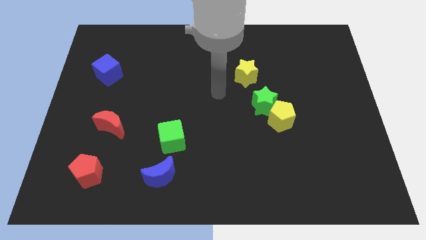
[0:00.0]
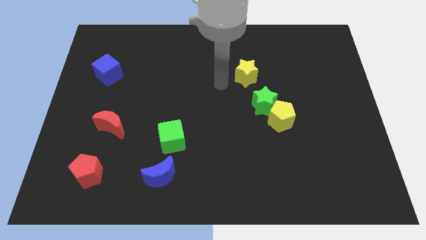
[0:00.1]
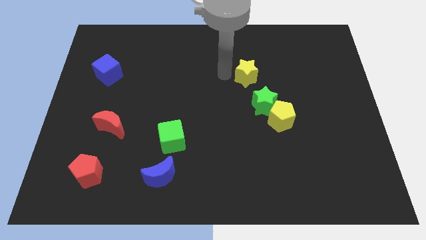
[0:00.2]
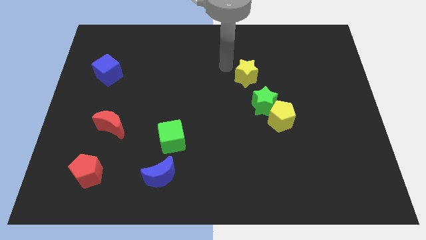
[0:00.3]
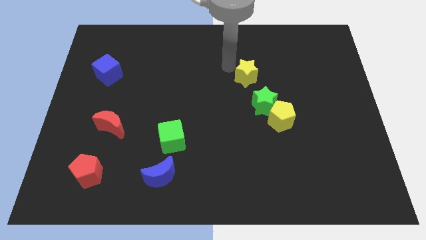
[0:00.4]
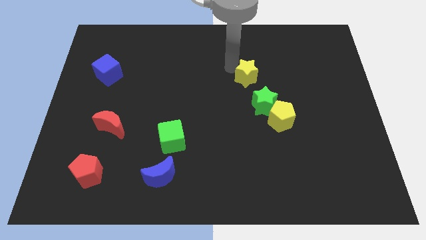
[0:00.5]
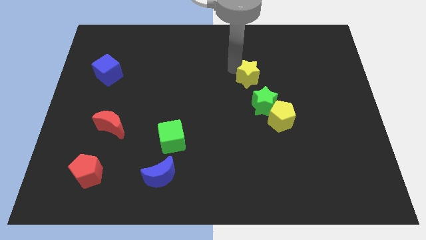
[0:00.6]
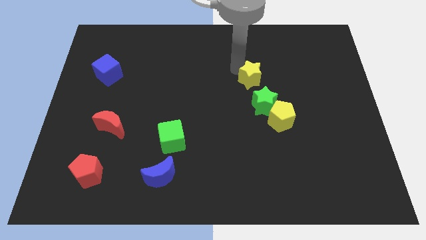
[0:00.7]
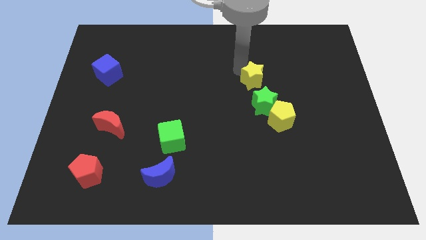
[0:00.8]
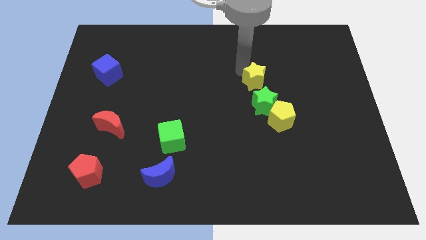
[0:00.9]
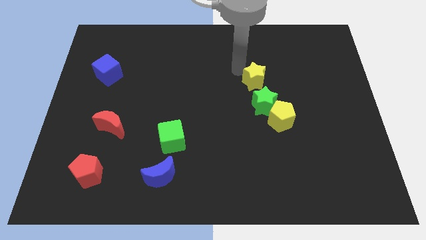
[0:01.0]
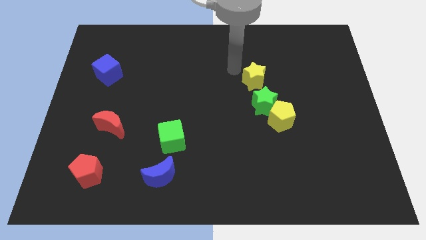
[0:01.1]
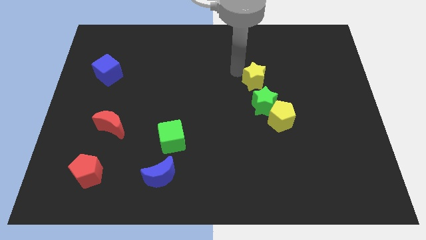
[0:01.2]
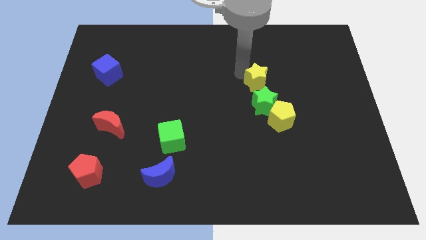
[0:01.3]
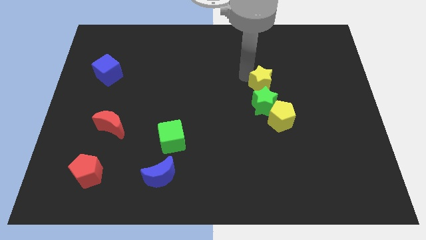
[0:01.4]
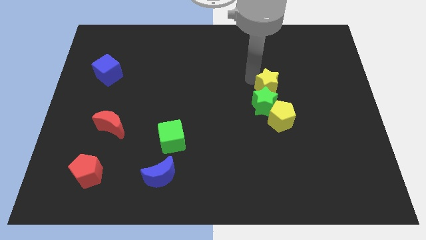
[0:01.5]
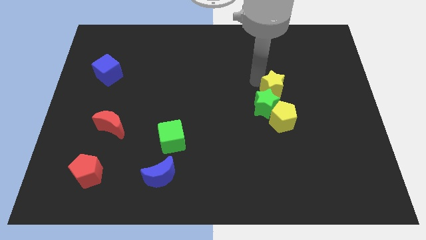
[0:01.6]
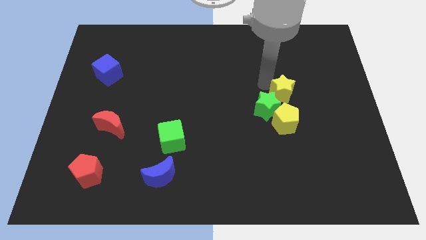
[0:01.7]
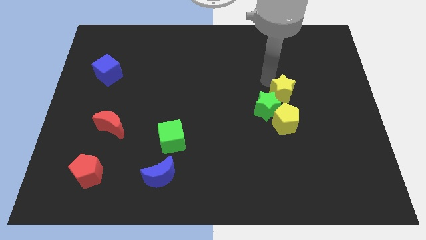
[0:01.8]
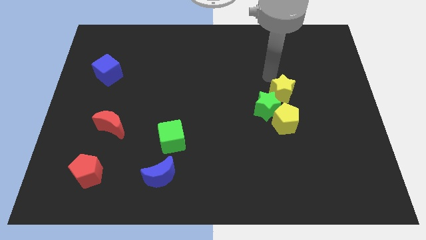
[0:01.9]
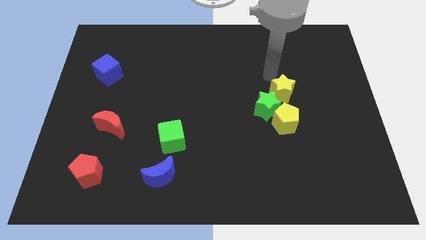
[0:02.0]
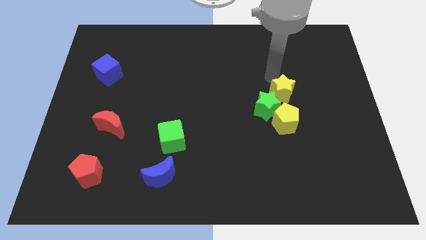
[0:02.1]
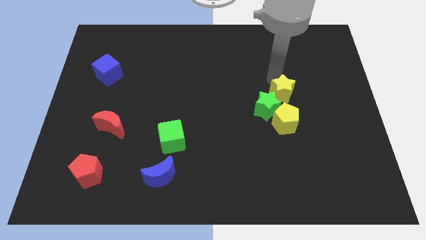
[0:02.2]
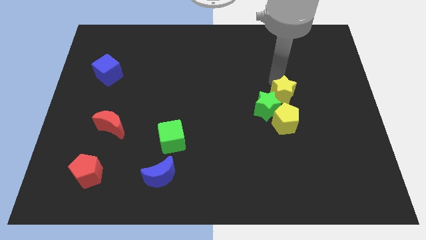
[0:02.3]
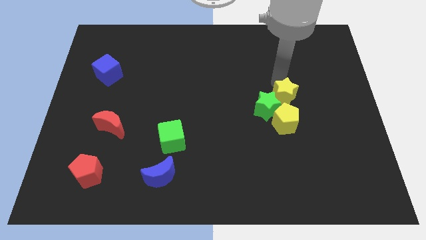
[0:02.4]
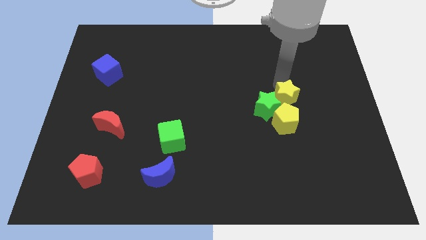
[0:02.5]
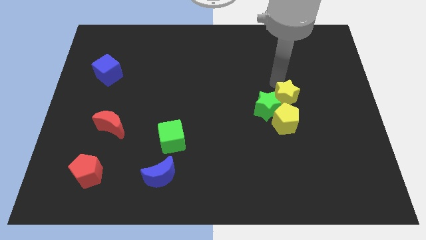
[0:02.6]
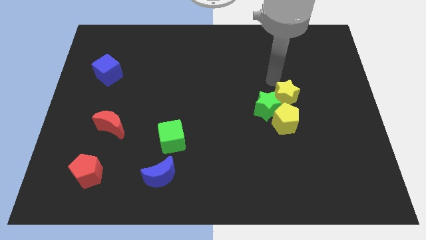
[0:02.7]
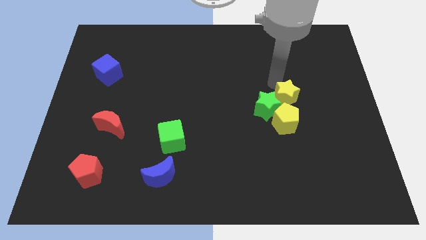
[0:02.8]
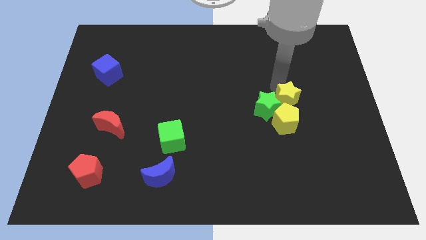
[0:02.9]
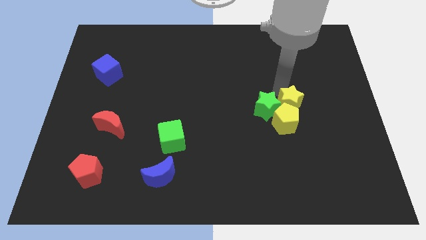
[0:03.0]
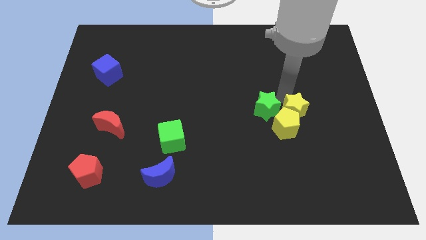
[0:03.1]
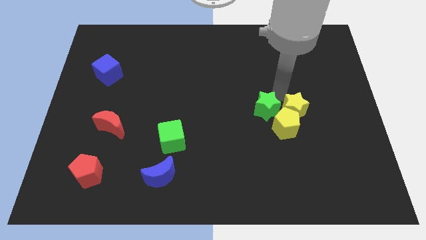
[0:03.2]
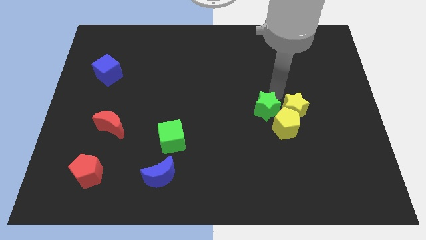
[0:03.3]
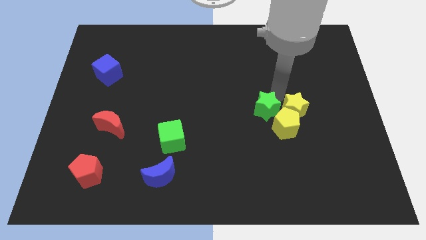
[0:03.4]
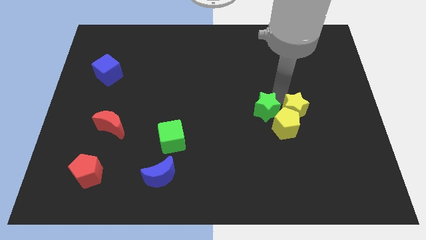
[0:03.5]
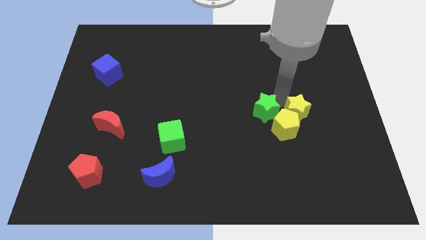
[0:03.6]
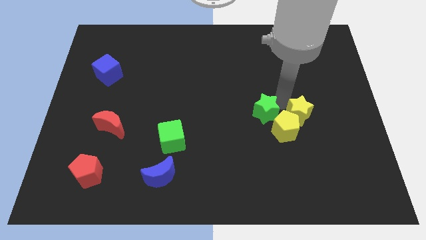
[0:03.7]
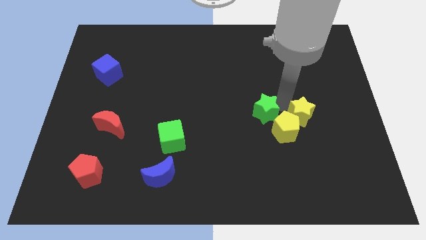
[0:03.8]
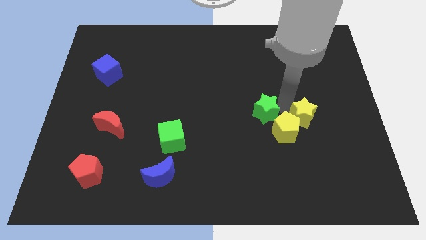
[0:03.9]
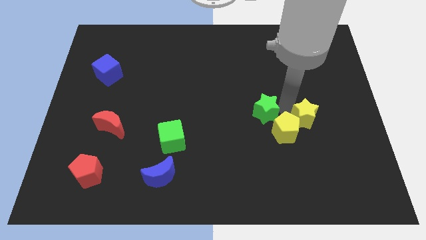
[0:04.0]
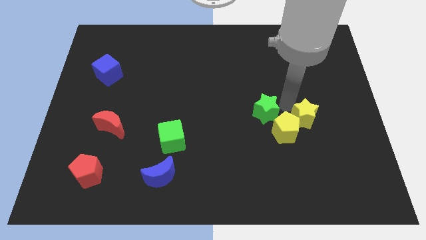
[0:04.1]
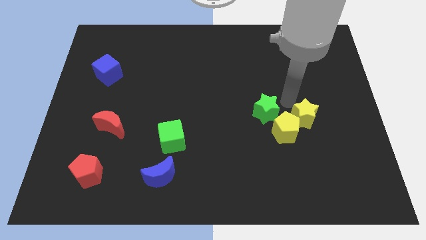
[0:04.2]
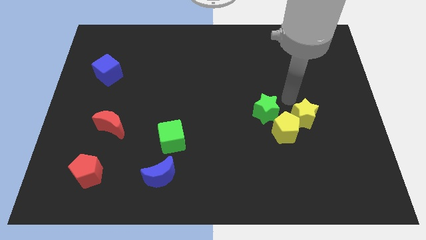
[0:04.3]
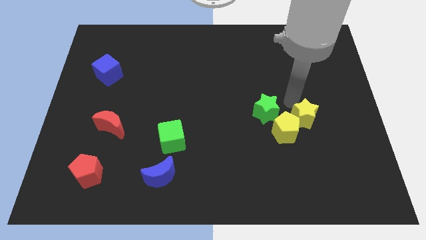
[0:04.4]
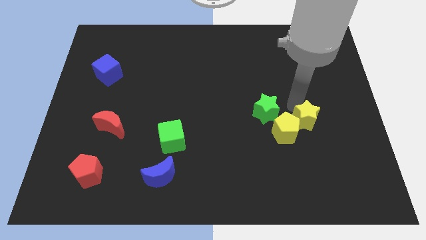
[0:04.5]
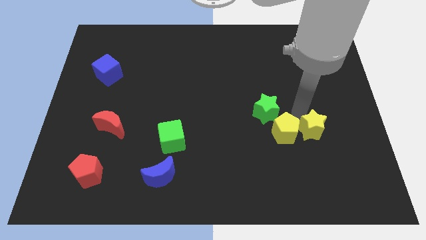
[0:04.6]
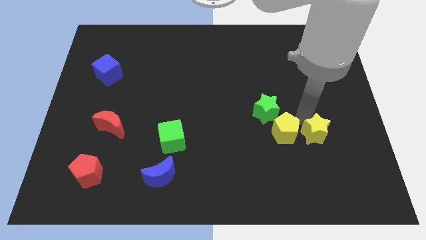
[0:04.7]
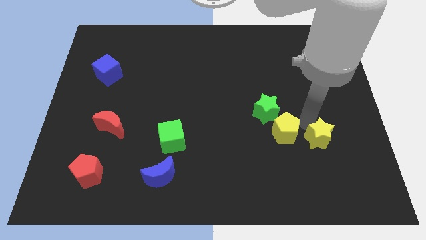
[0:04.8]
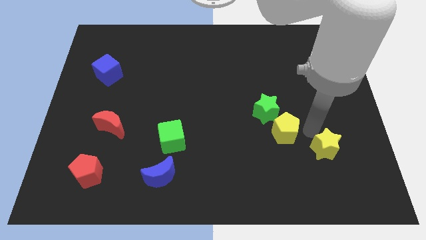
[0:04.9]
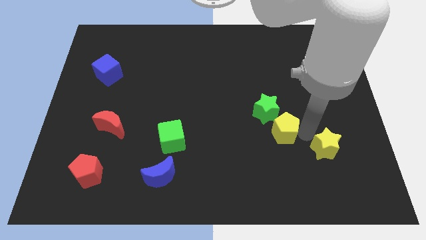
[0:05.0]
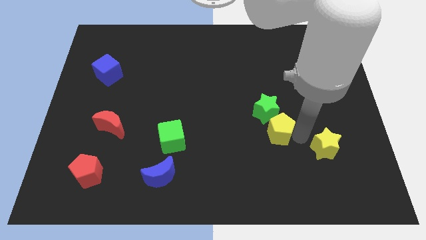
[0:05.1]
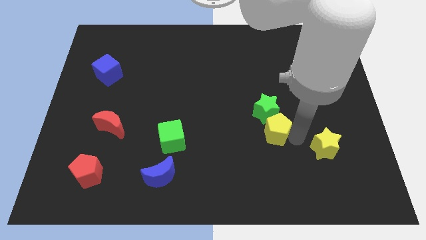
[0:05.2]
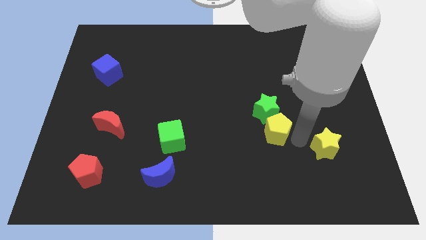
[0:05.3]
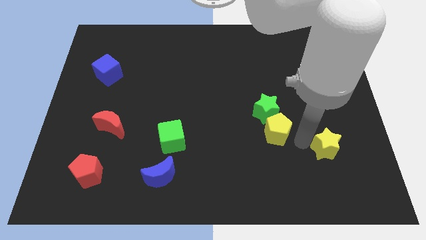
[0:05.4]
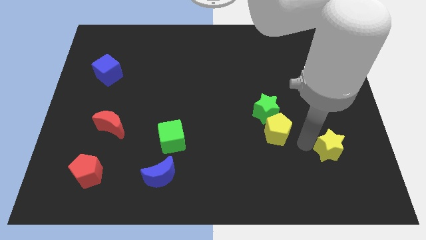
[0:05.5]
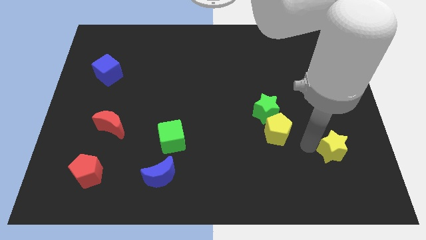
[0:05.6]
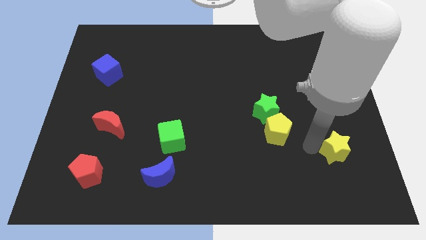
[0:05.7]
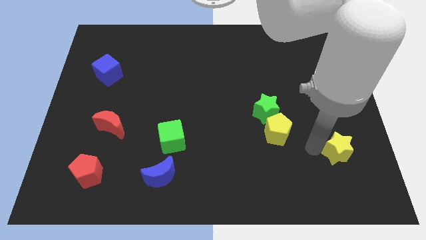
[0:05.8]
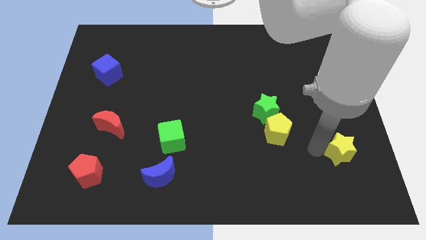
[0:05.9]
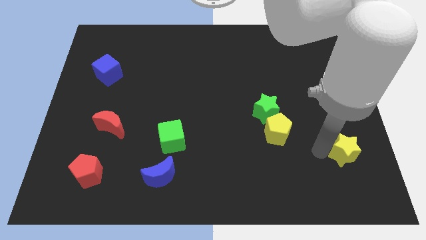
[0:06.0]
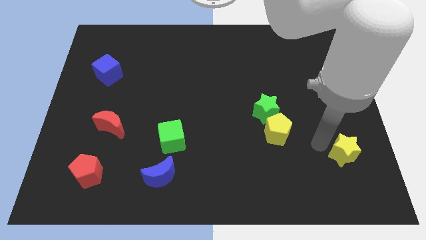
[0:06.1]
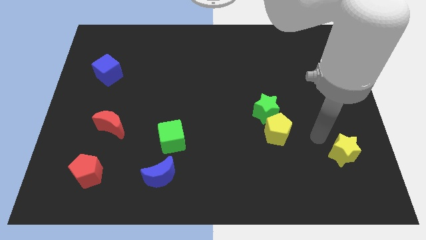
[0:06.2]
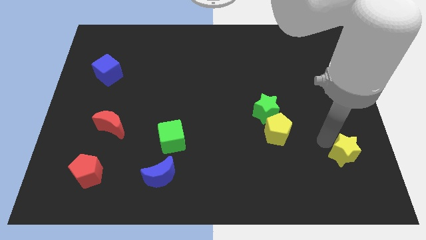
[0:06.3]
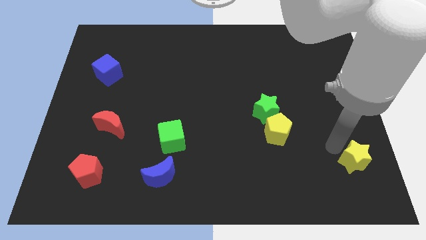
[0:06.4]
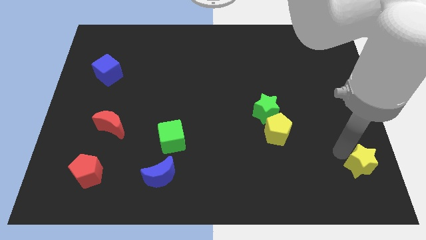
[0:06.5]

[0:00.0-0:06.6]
push the yellow star to the lower right corner
